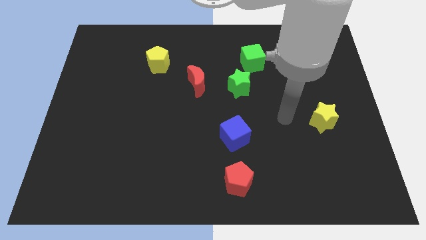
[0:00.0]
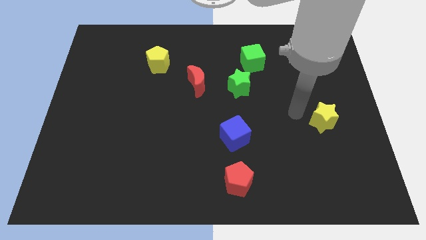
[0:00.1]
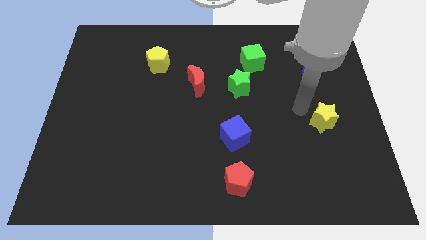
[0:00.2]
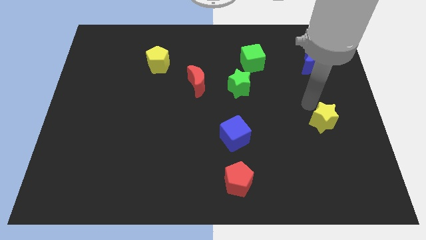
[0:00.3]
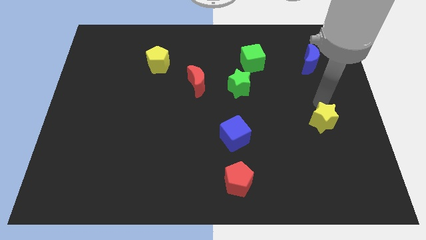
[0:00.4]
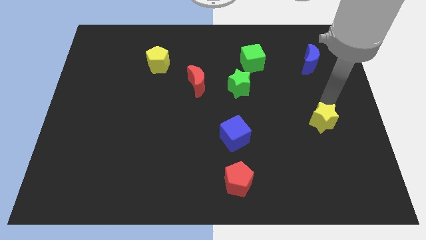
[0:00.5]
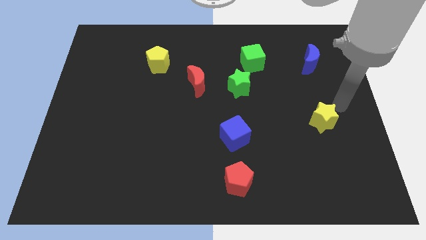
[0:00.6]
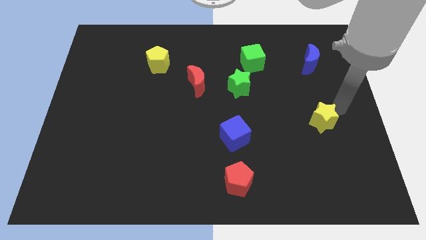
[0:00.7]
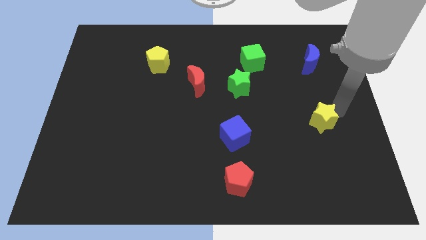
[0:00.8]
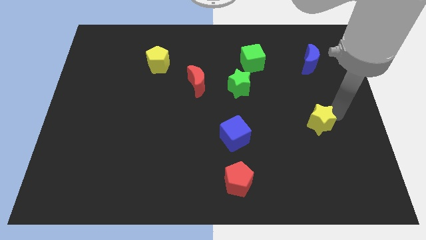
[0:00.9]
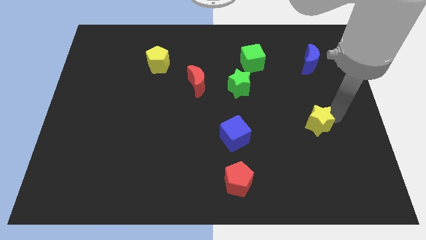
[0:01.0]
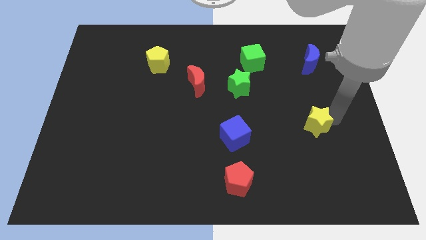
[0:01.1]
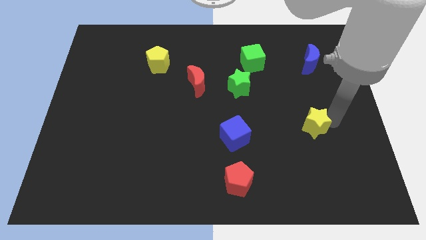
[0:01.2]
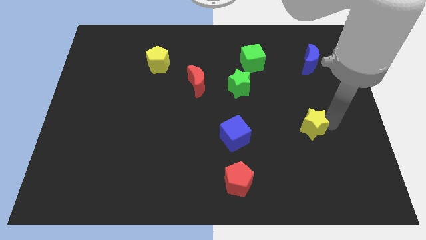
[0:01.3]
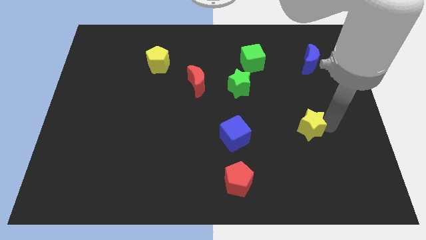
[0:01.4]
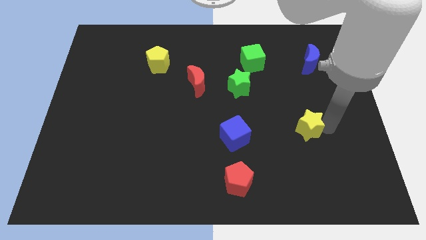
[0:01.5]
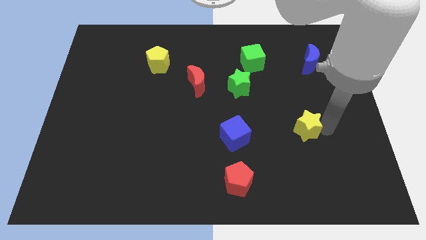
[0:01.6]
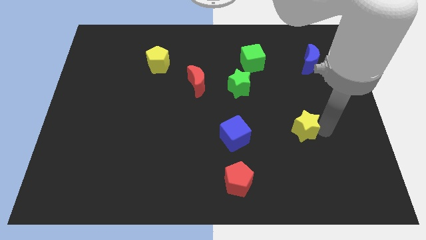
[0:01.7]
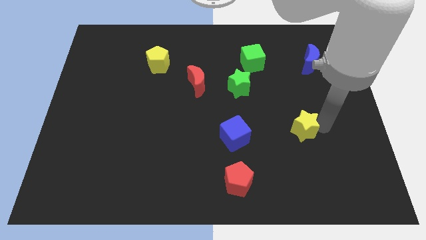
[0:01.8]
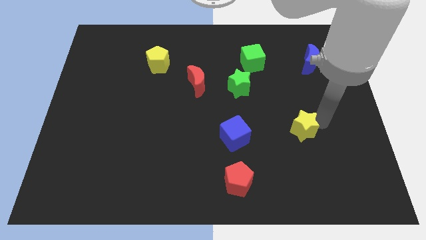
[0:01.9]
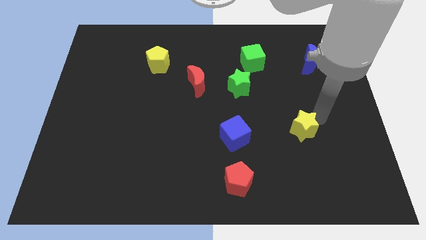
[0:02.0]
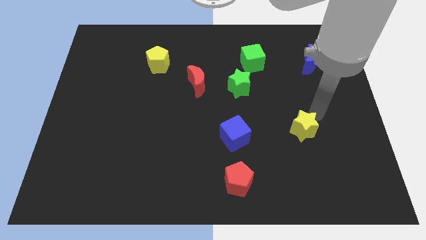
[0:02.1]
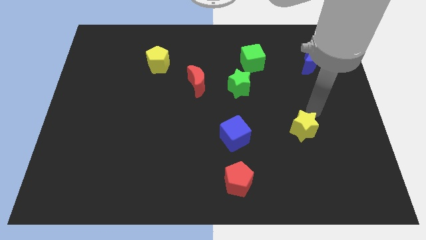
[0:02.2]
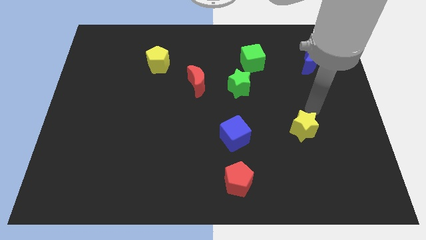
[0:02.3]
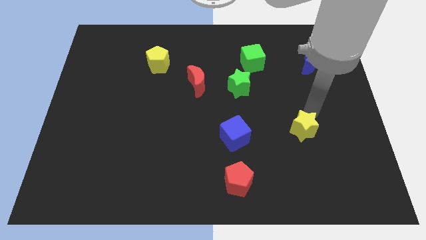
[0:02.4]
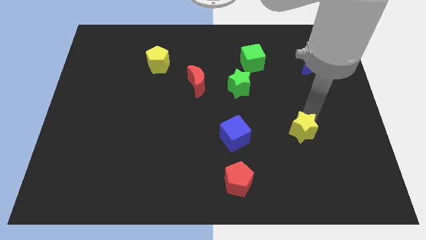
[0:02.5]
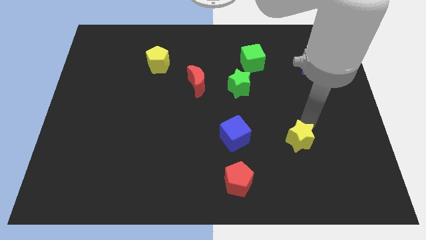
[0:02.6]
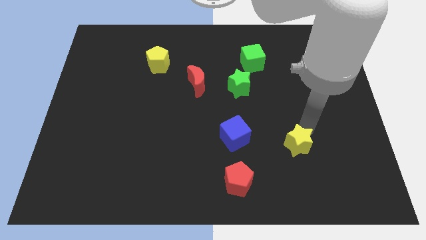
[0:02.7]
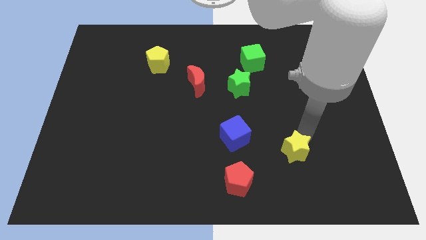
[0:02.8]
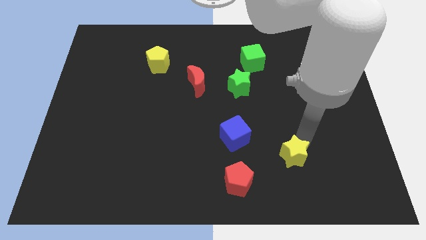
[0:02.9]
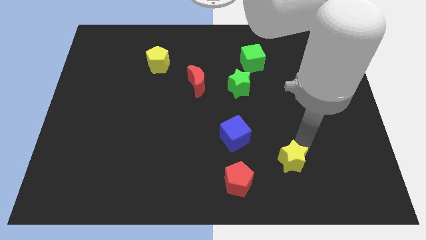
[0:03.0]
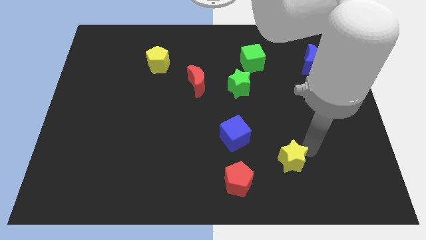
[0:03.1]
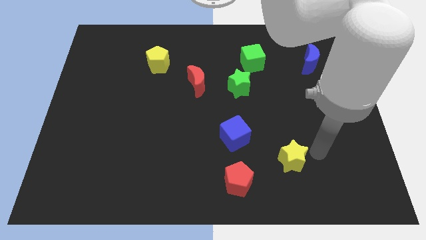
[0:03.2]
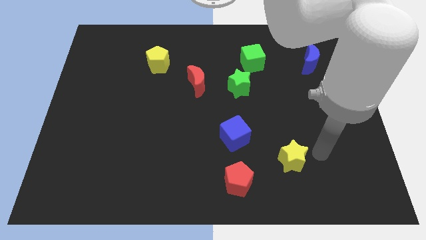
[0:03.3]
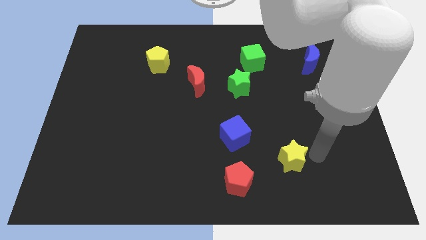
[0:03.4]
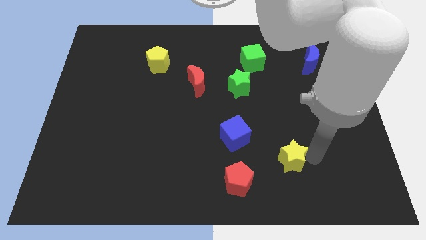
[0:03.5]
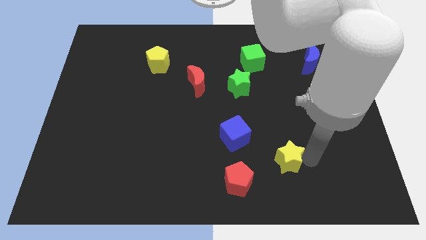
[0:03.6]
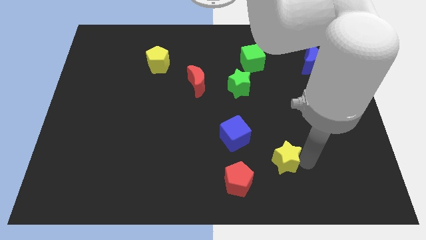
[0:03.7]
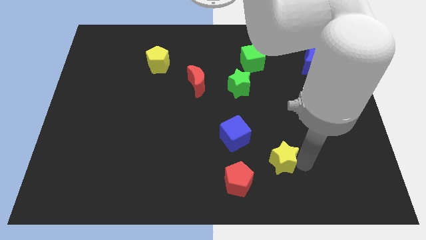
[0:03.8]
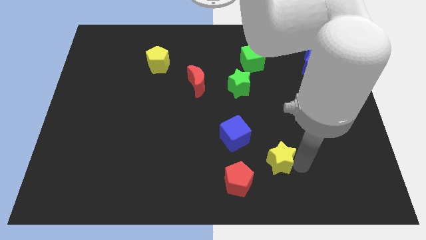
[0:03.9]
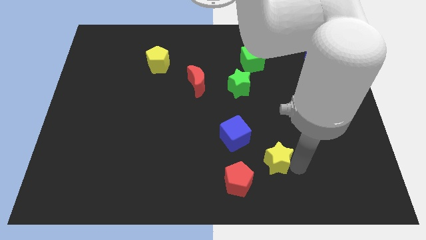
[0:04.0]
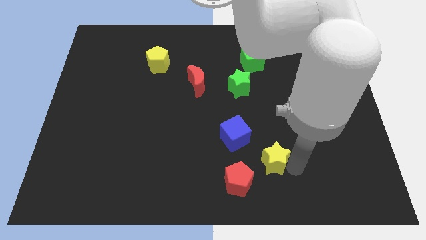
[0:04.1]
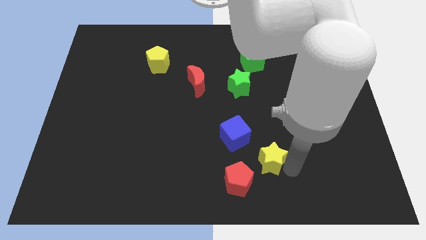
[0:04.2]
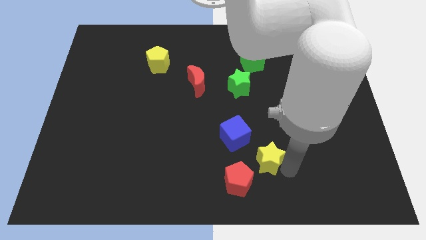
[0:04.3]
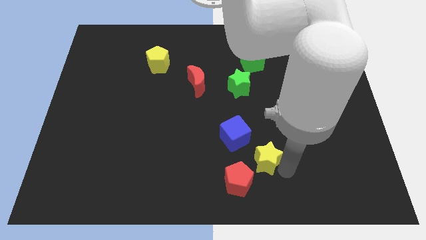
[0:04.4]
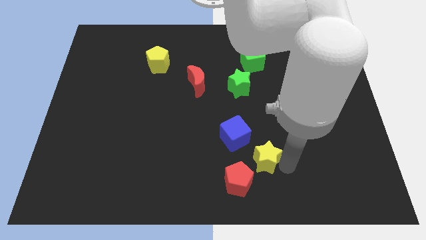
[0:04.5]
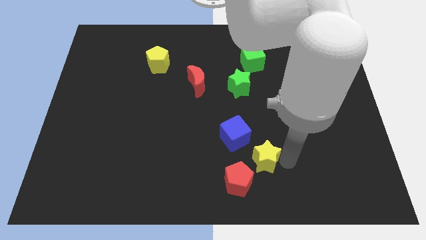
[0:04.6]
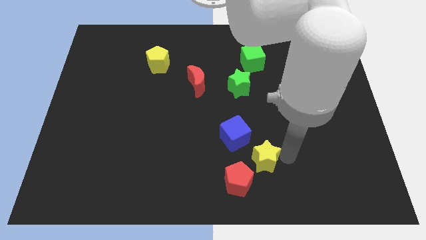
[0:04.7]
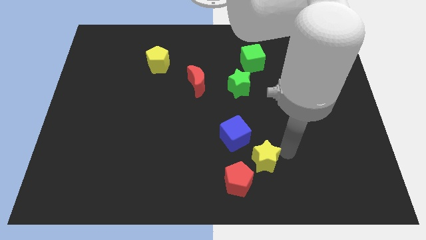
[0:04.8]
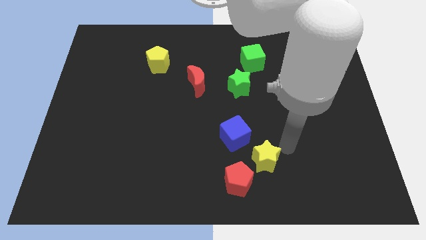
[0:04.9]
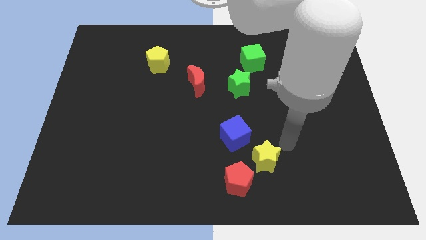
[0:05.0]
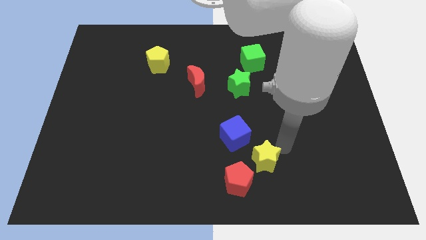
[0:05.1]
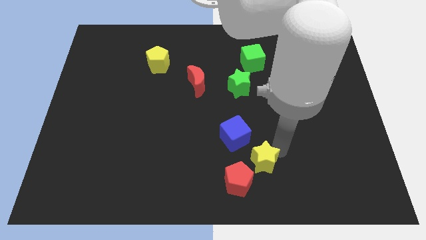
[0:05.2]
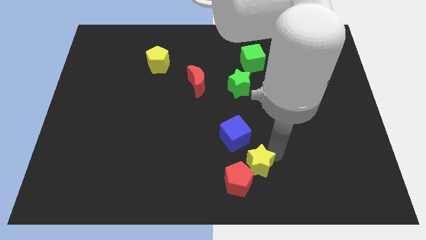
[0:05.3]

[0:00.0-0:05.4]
move the yellow star towards the red pentagon
